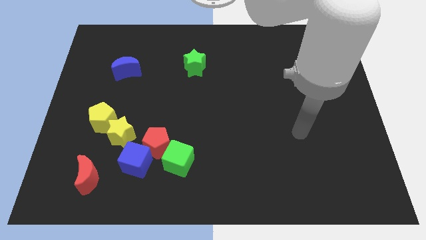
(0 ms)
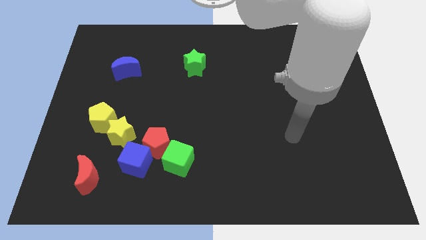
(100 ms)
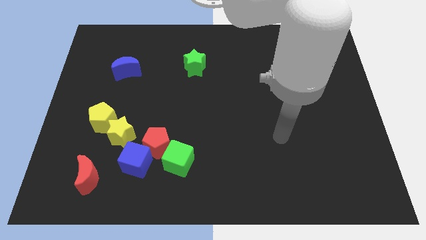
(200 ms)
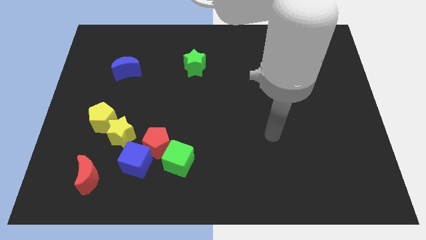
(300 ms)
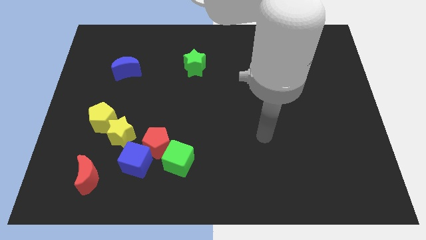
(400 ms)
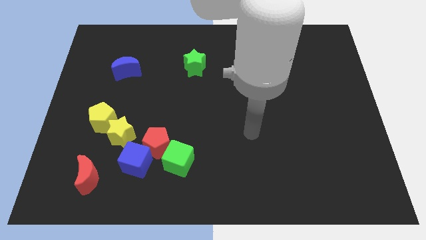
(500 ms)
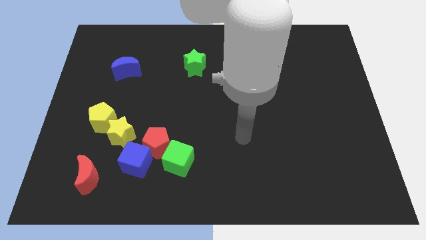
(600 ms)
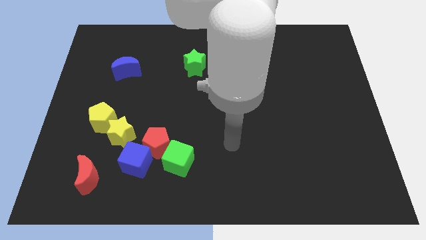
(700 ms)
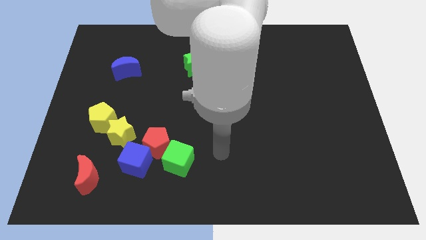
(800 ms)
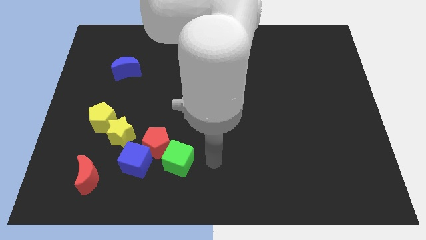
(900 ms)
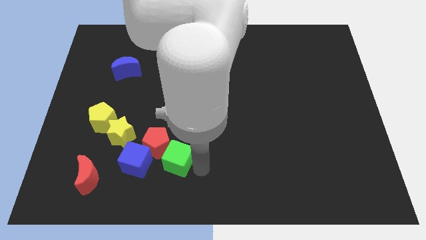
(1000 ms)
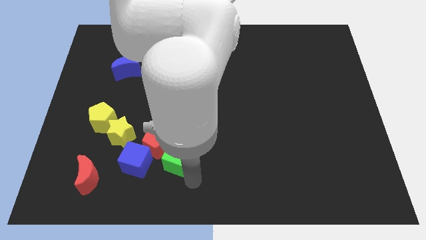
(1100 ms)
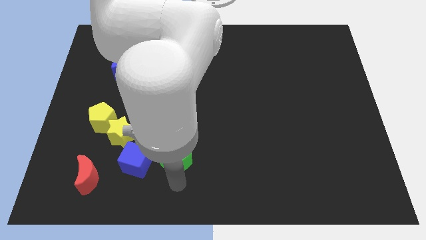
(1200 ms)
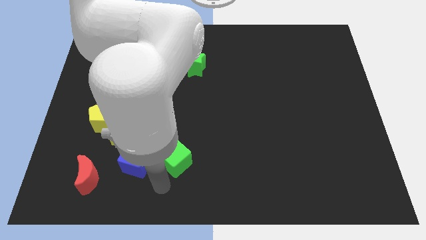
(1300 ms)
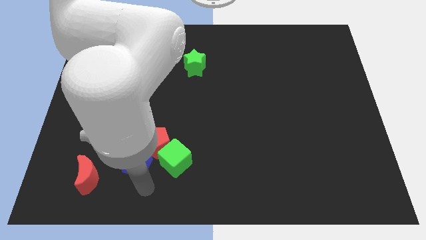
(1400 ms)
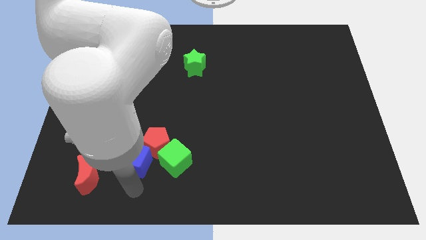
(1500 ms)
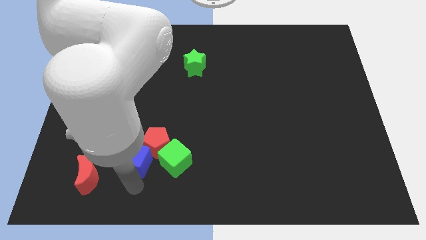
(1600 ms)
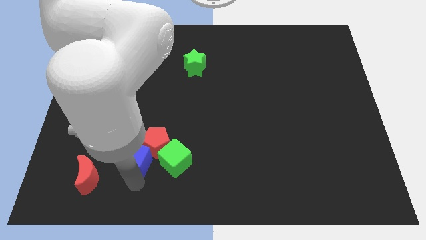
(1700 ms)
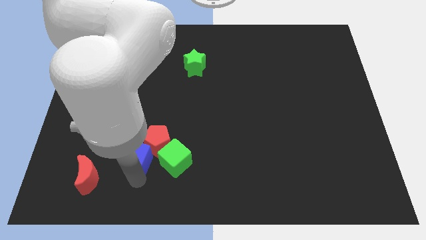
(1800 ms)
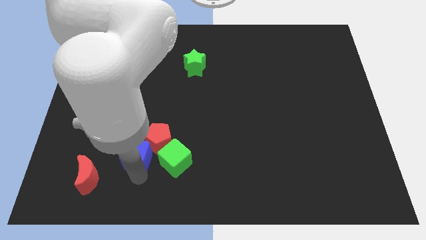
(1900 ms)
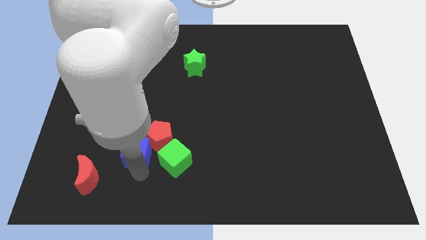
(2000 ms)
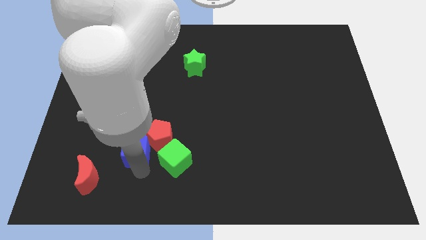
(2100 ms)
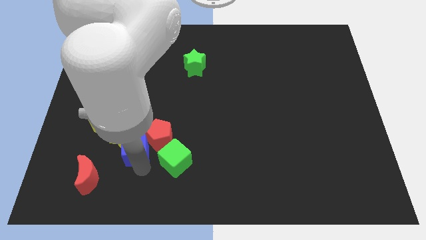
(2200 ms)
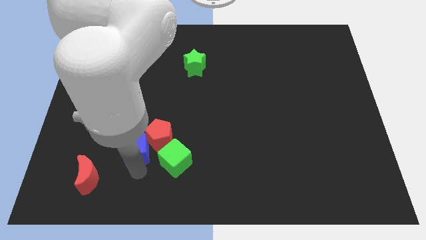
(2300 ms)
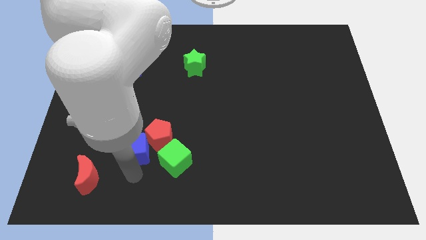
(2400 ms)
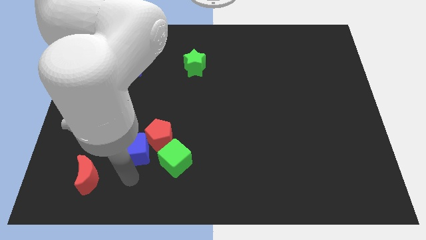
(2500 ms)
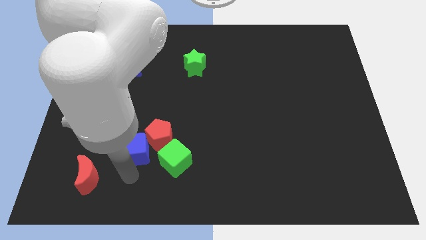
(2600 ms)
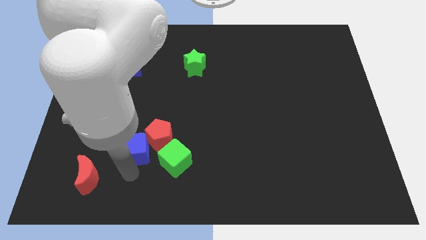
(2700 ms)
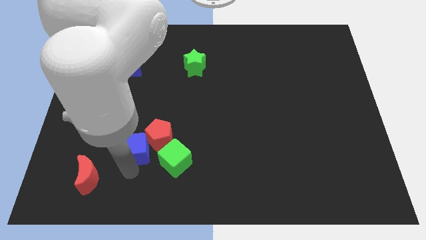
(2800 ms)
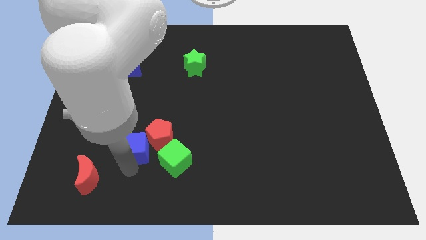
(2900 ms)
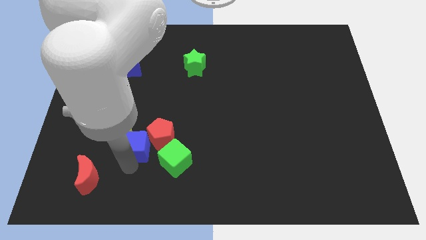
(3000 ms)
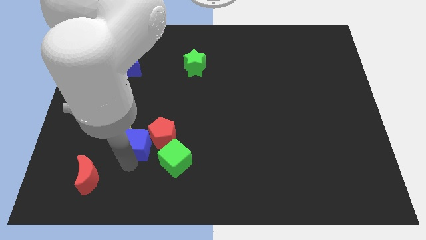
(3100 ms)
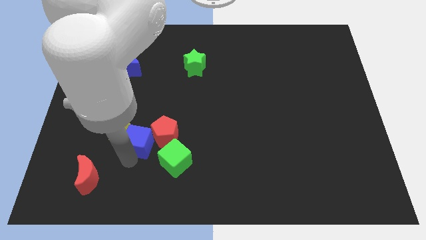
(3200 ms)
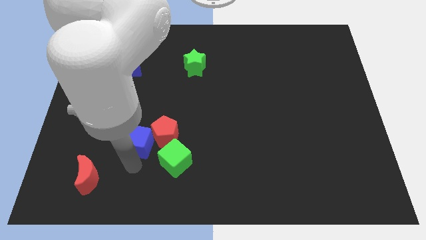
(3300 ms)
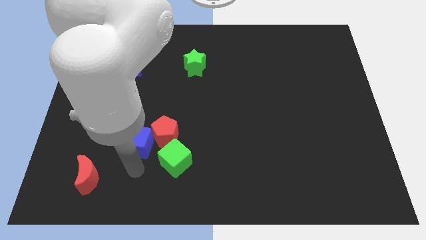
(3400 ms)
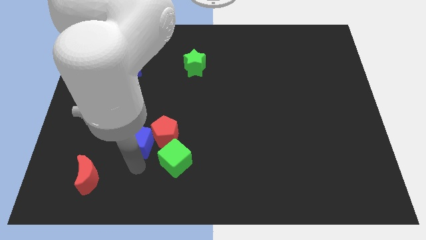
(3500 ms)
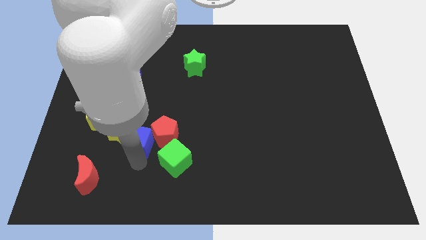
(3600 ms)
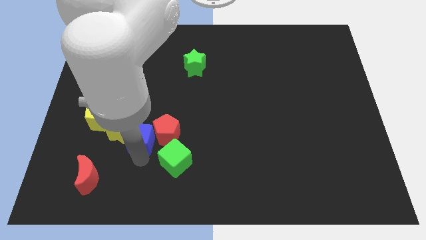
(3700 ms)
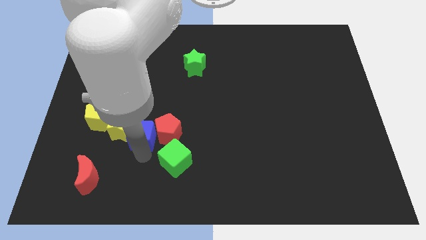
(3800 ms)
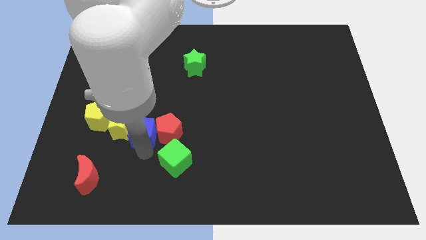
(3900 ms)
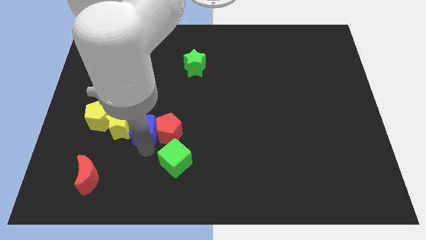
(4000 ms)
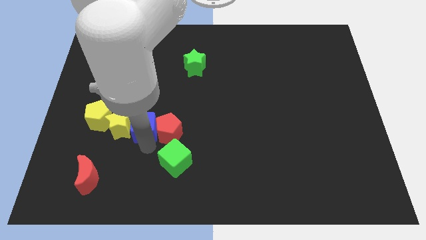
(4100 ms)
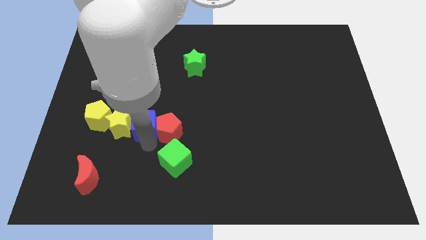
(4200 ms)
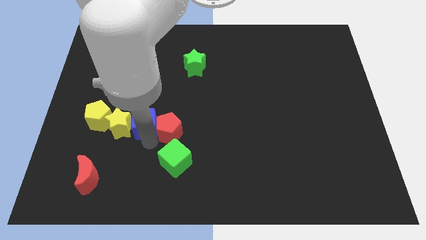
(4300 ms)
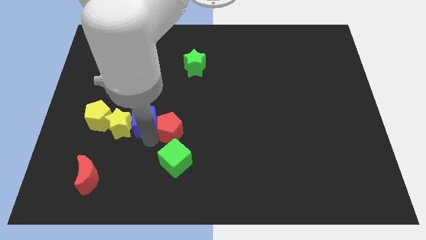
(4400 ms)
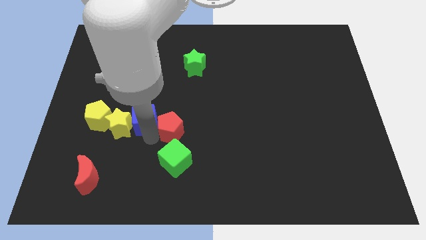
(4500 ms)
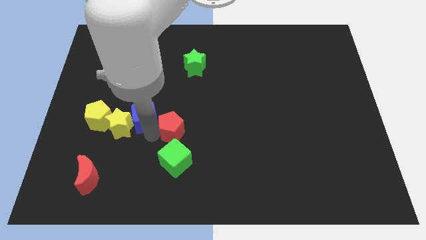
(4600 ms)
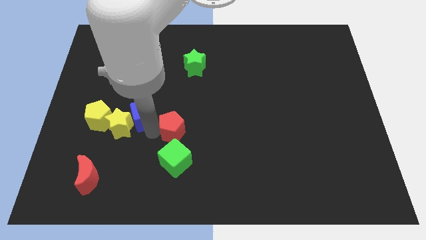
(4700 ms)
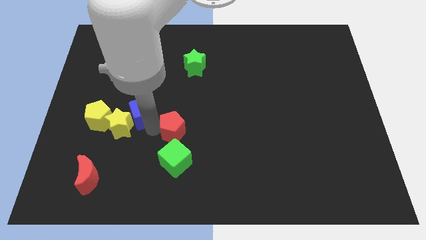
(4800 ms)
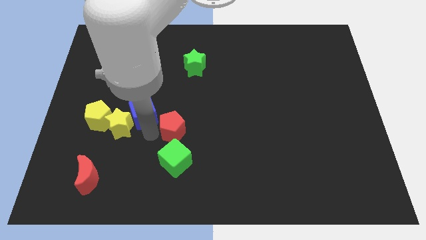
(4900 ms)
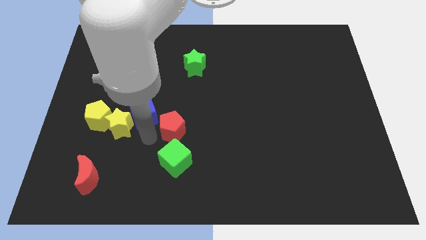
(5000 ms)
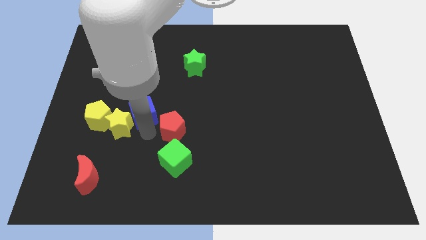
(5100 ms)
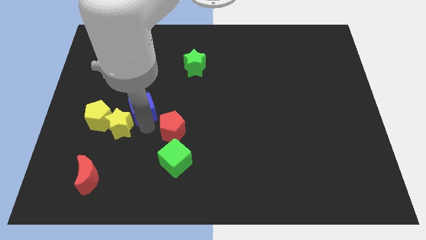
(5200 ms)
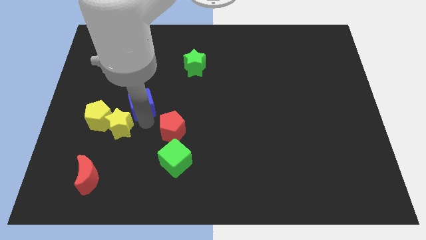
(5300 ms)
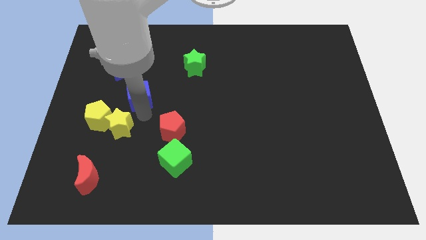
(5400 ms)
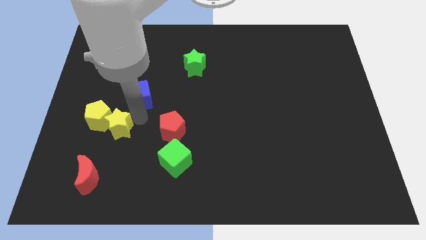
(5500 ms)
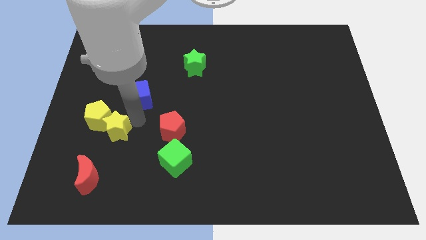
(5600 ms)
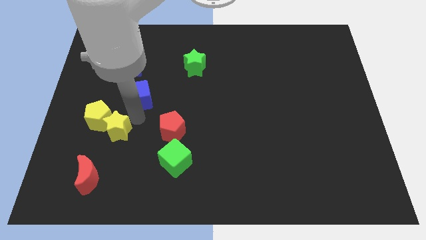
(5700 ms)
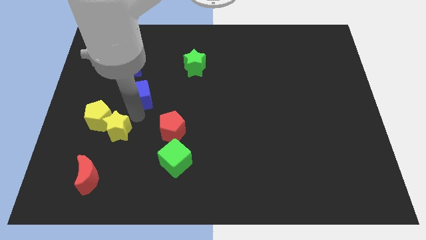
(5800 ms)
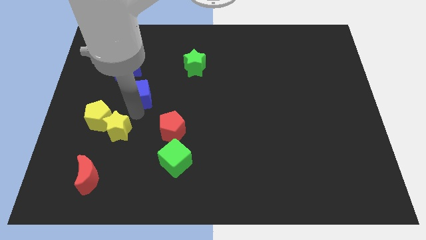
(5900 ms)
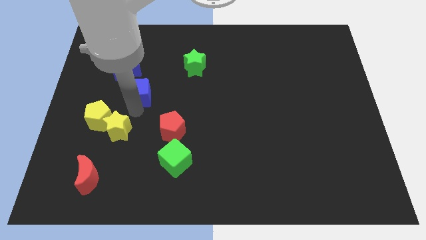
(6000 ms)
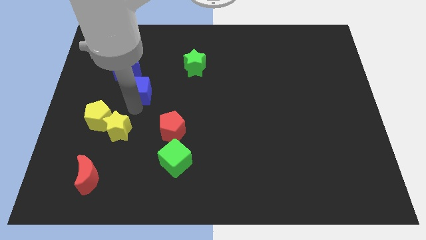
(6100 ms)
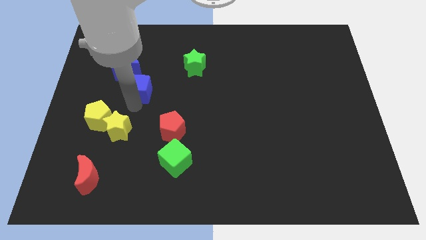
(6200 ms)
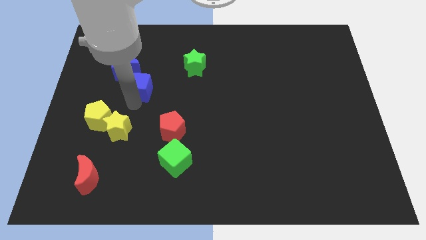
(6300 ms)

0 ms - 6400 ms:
move the blue cube up

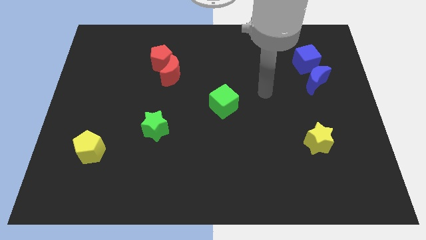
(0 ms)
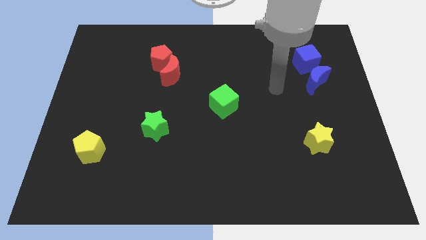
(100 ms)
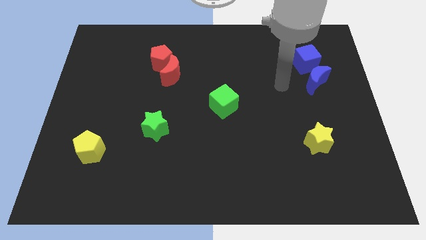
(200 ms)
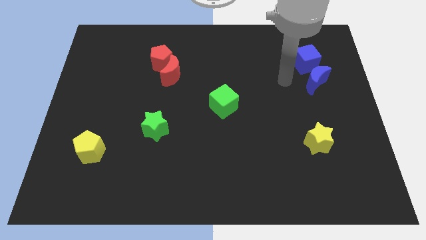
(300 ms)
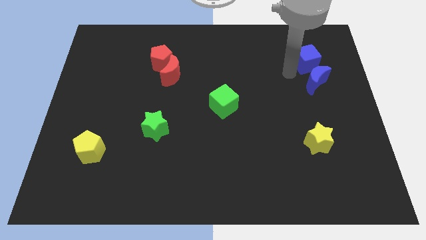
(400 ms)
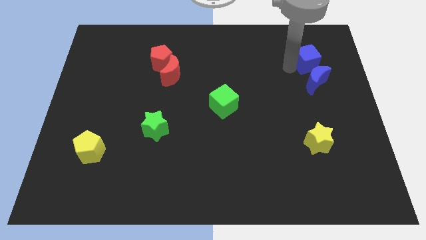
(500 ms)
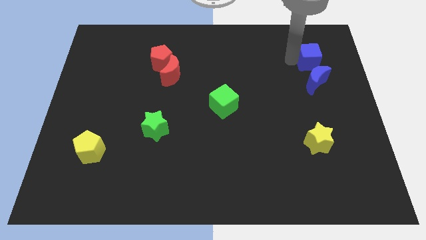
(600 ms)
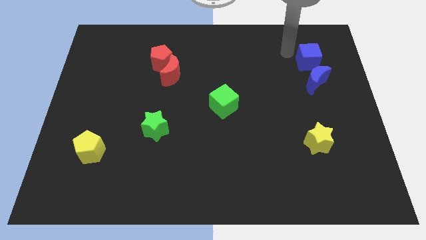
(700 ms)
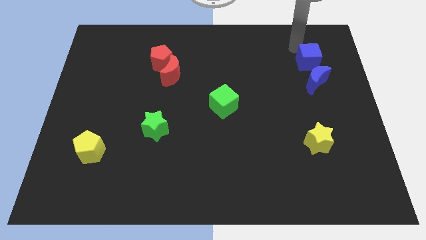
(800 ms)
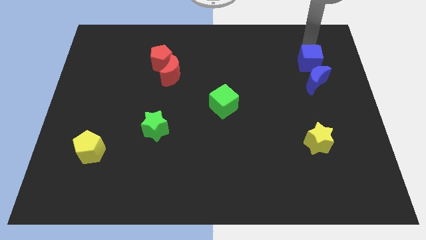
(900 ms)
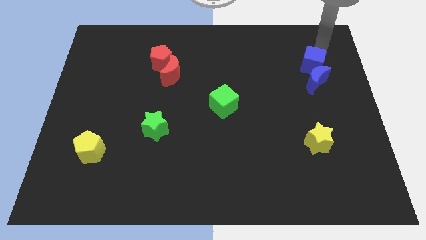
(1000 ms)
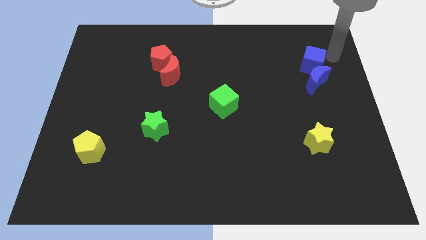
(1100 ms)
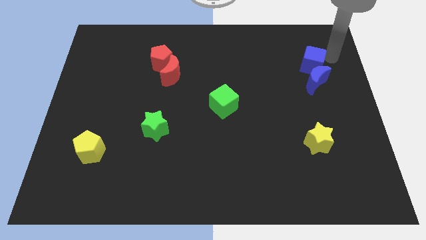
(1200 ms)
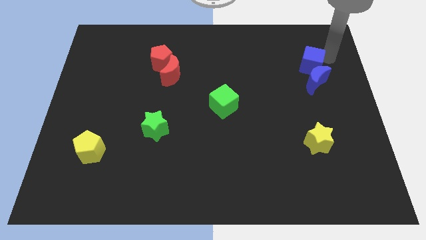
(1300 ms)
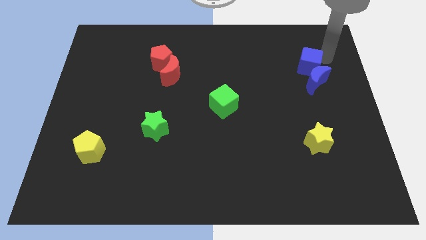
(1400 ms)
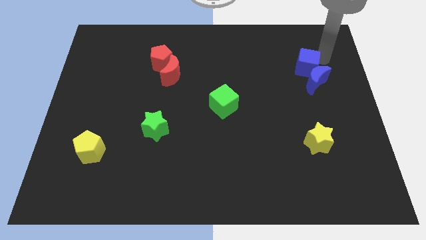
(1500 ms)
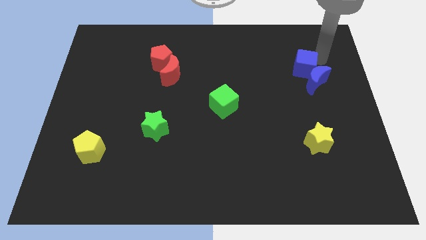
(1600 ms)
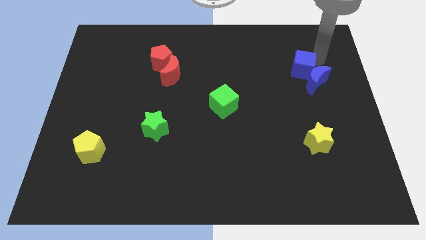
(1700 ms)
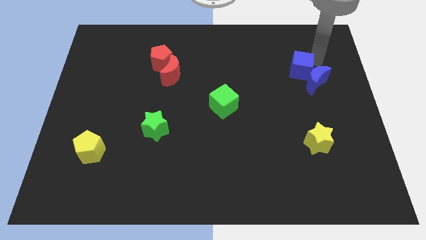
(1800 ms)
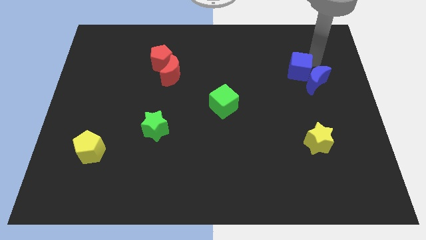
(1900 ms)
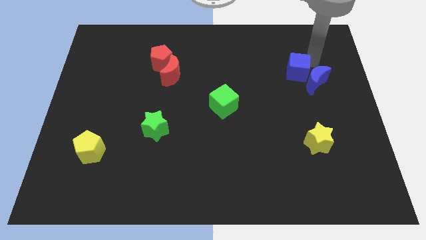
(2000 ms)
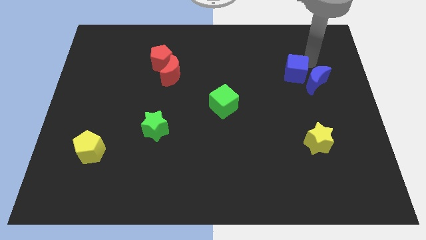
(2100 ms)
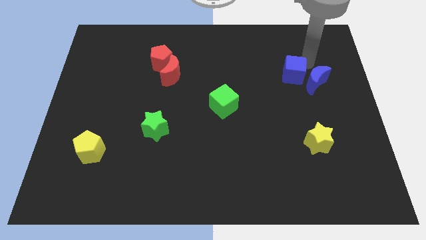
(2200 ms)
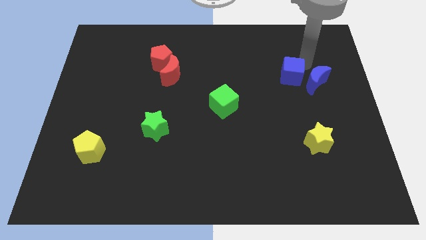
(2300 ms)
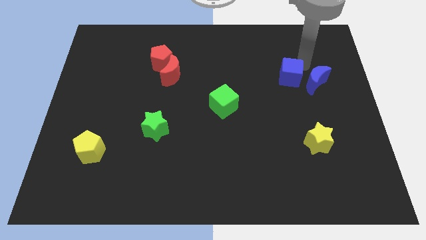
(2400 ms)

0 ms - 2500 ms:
slide the blue cube downwards and then left a little bit
